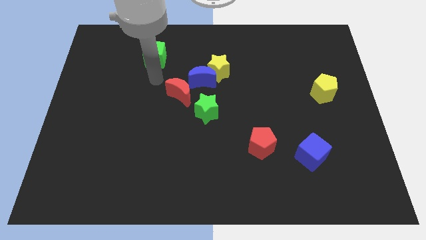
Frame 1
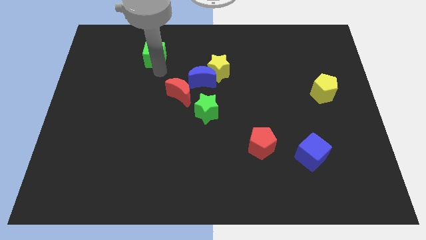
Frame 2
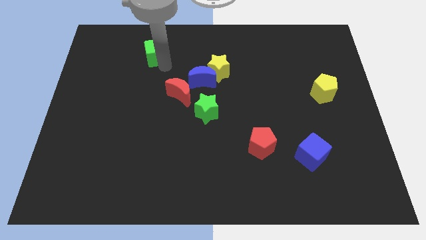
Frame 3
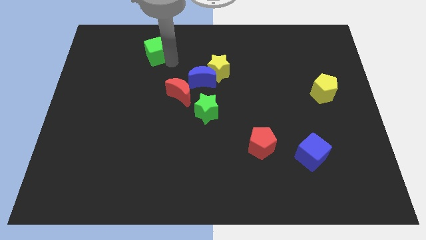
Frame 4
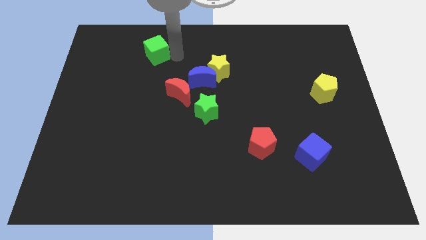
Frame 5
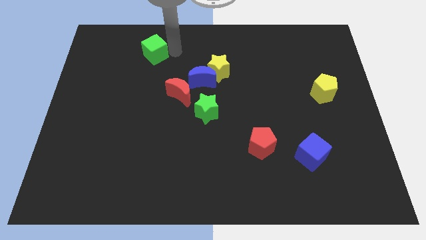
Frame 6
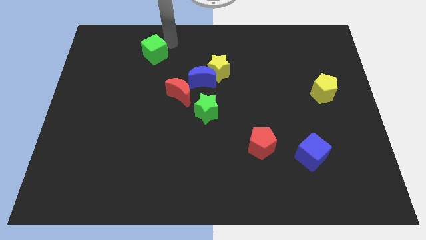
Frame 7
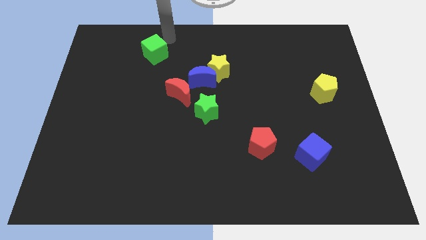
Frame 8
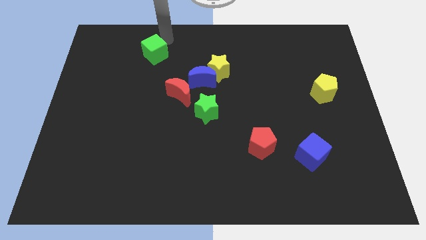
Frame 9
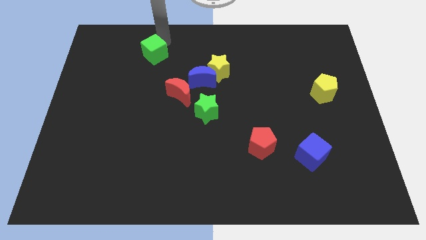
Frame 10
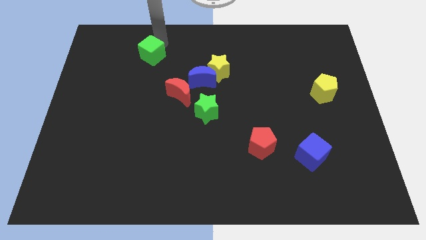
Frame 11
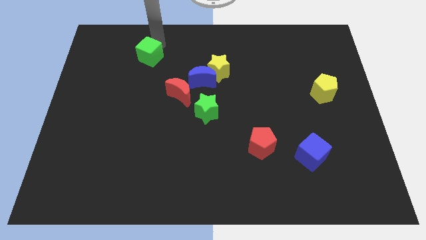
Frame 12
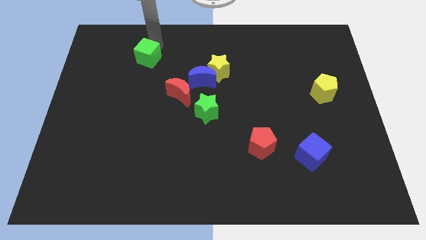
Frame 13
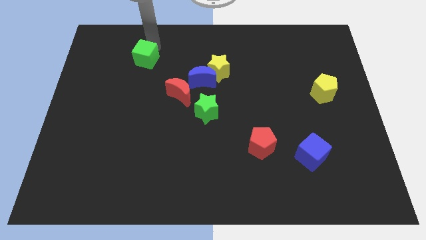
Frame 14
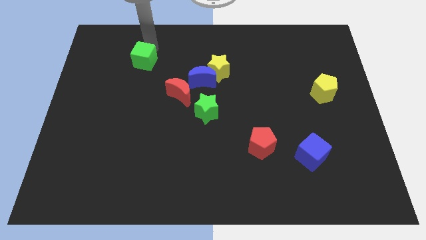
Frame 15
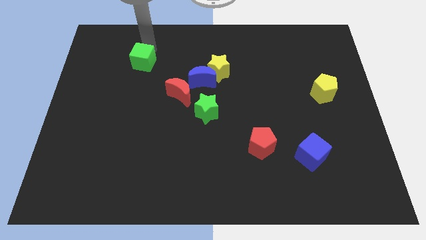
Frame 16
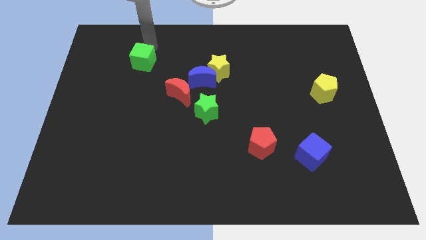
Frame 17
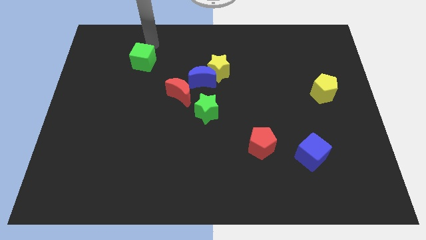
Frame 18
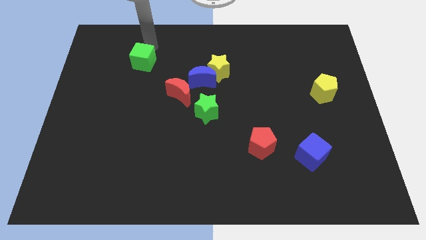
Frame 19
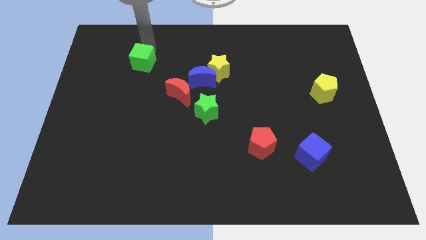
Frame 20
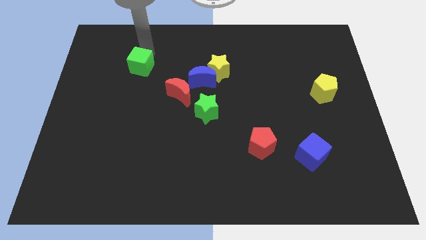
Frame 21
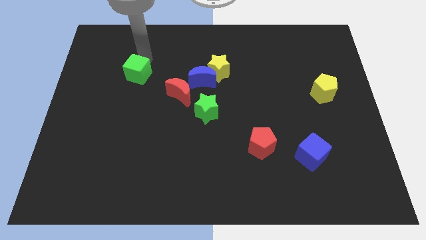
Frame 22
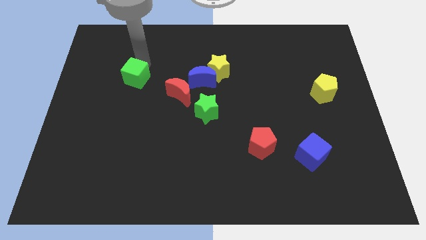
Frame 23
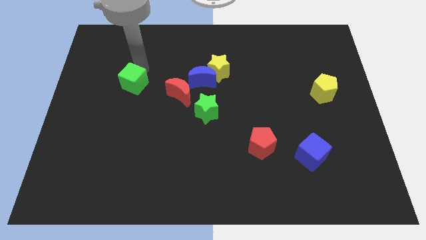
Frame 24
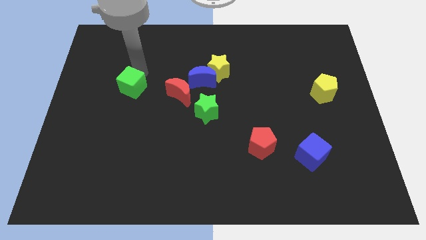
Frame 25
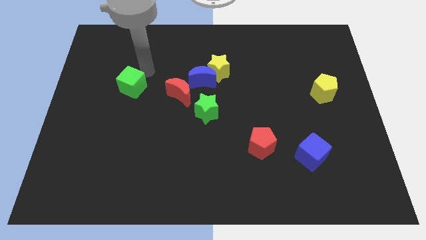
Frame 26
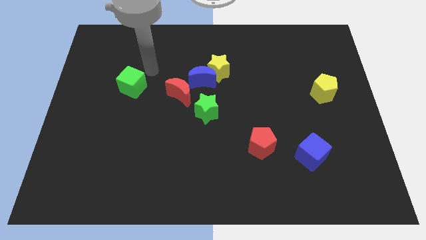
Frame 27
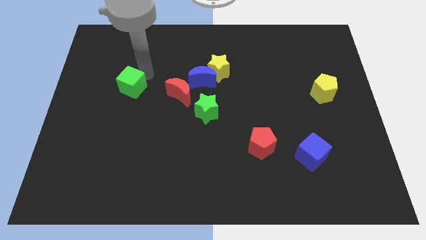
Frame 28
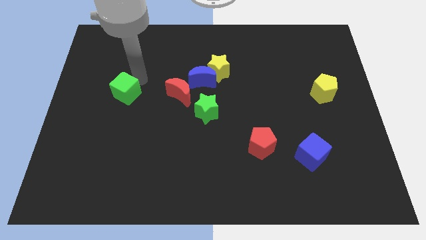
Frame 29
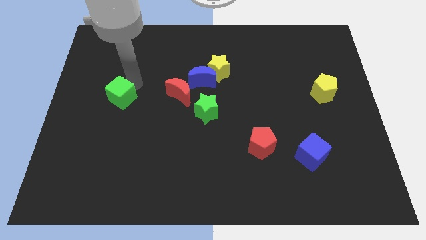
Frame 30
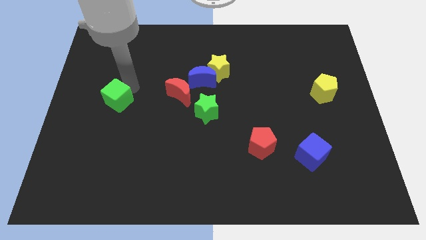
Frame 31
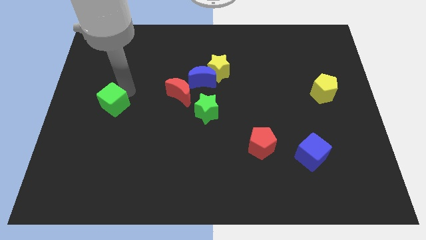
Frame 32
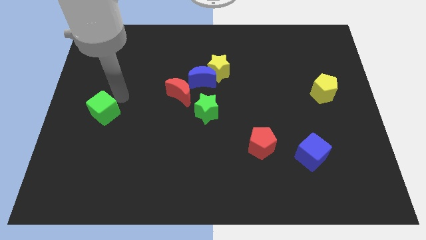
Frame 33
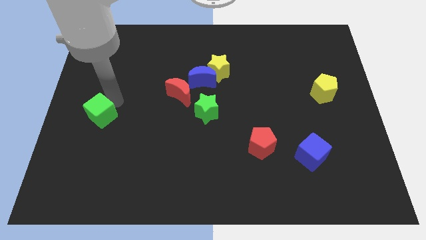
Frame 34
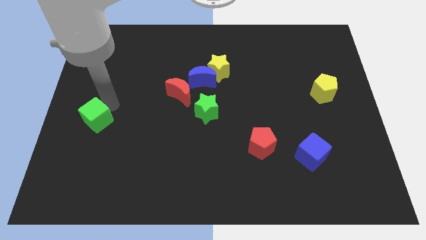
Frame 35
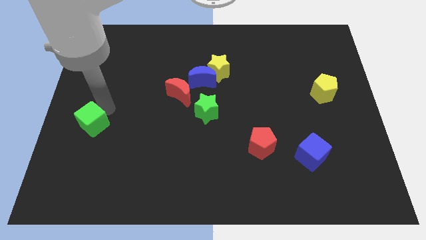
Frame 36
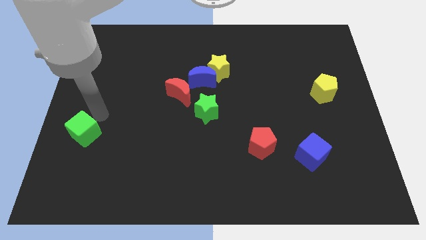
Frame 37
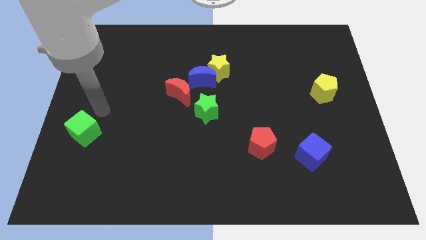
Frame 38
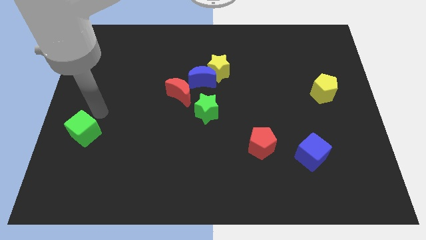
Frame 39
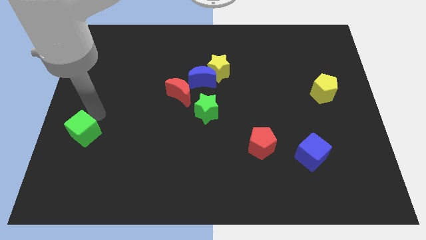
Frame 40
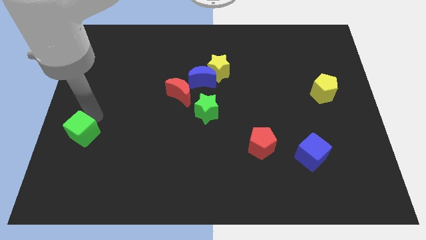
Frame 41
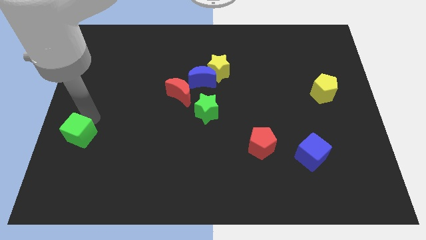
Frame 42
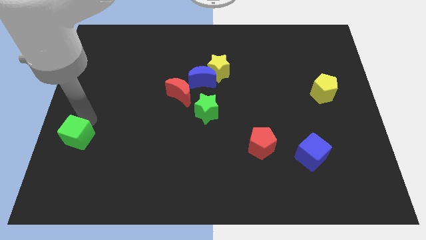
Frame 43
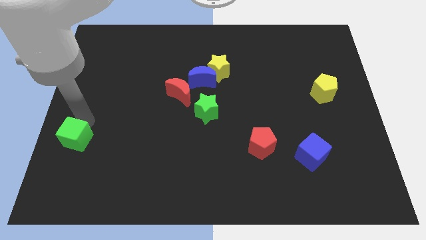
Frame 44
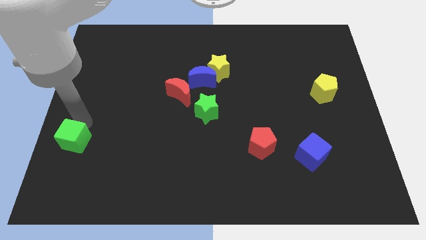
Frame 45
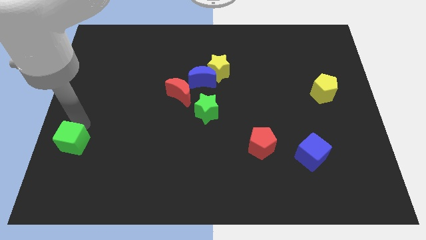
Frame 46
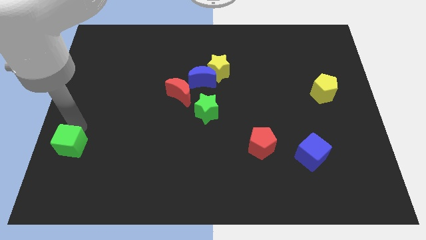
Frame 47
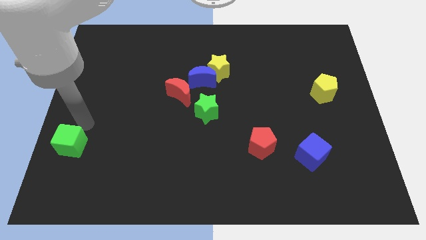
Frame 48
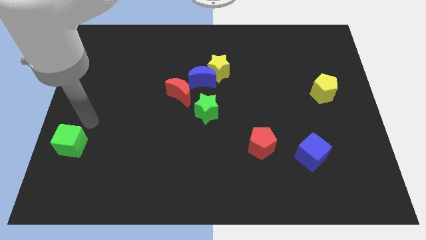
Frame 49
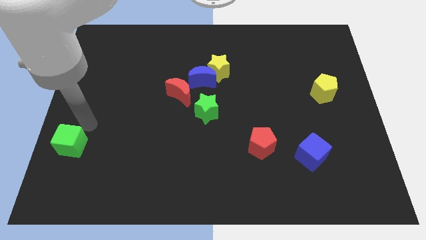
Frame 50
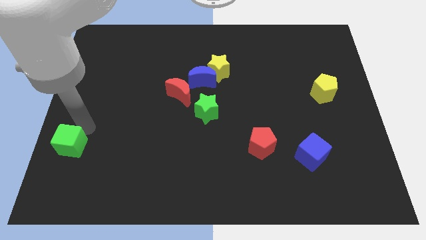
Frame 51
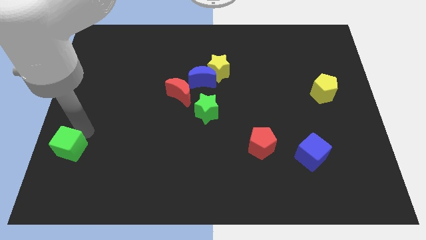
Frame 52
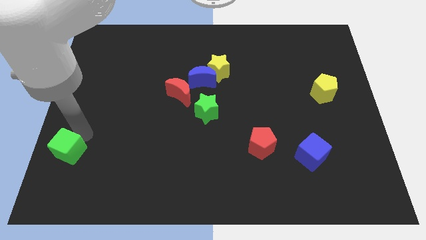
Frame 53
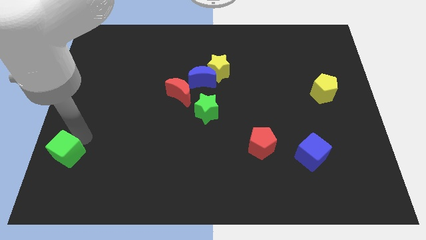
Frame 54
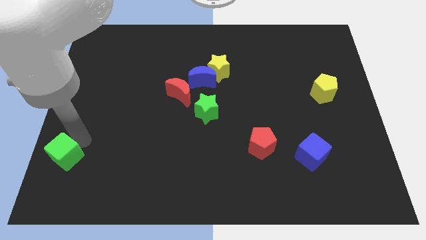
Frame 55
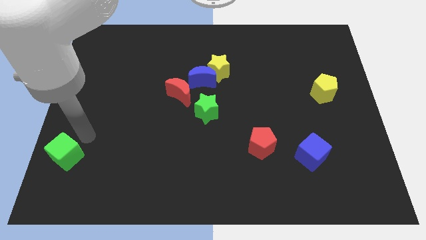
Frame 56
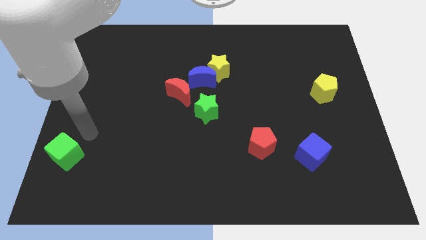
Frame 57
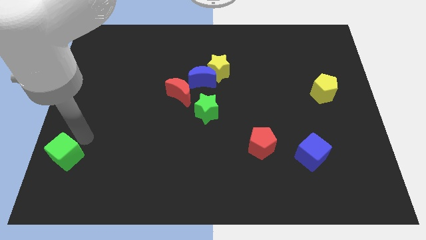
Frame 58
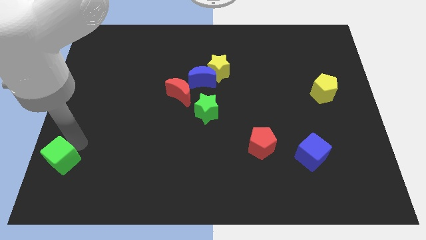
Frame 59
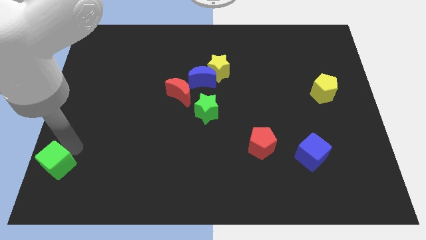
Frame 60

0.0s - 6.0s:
move the green cube to the lower left corner

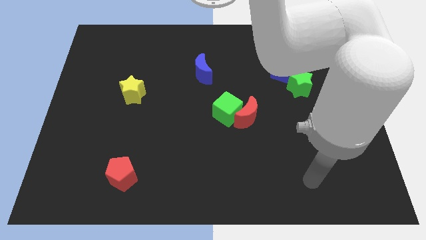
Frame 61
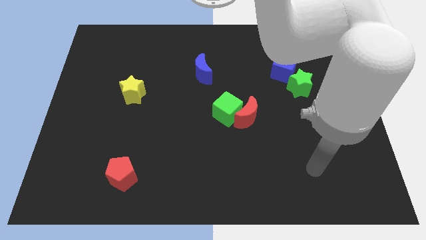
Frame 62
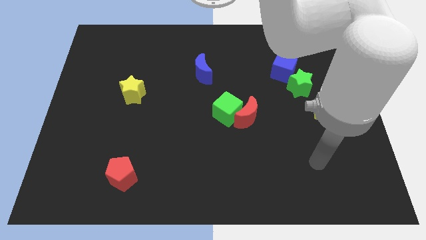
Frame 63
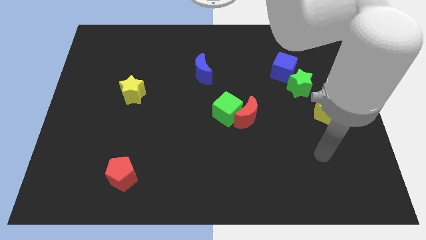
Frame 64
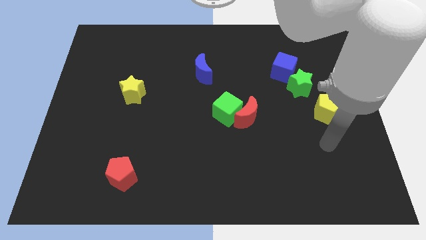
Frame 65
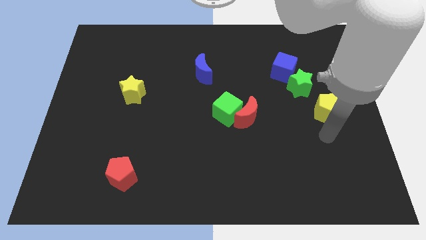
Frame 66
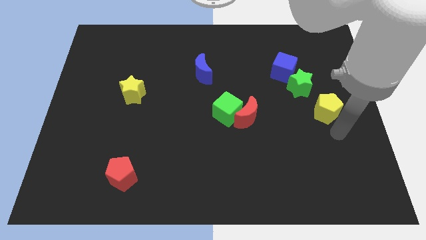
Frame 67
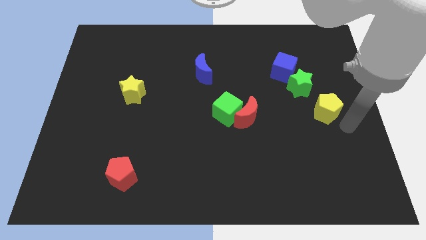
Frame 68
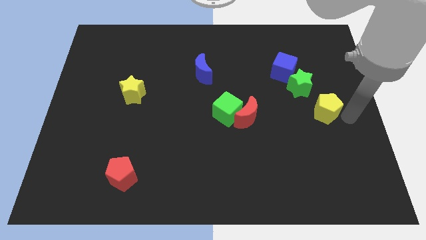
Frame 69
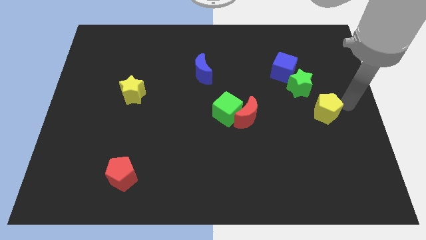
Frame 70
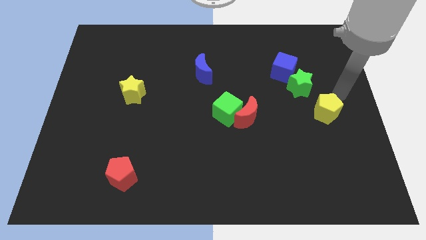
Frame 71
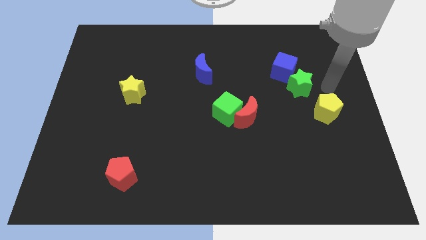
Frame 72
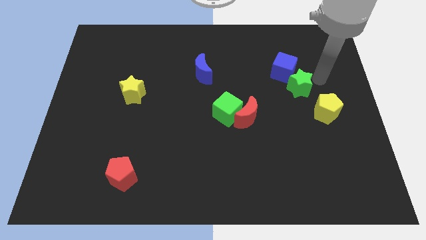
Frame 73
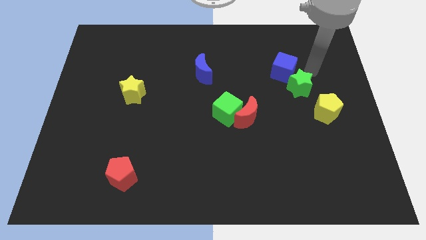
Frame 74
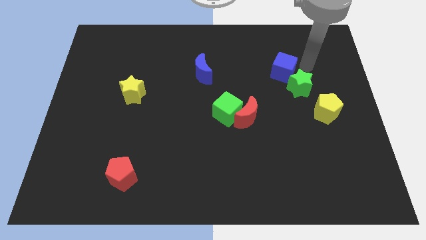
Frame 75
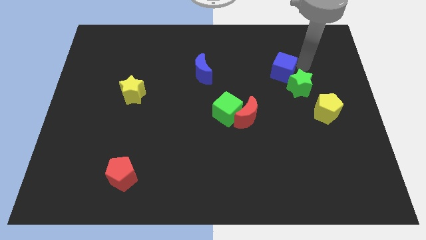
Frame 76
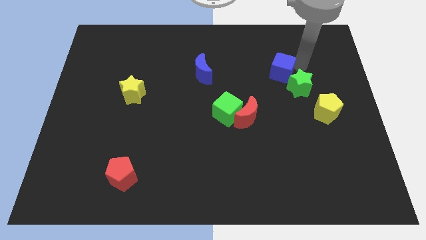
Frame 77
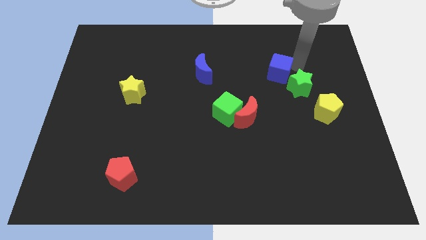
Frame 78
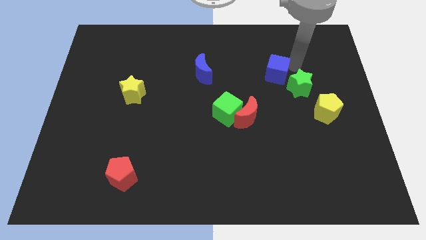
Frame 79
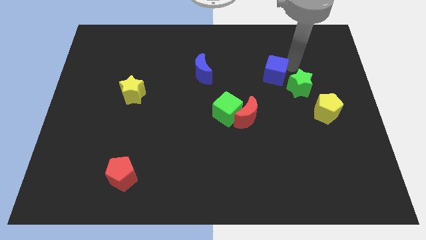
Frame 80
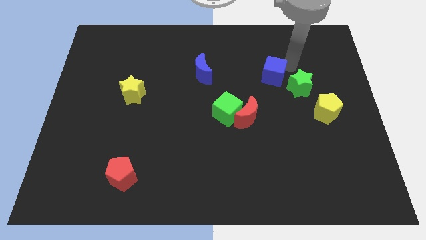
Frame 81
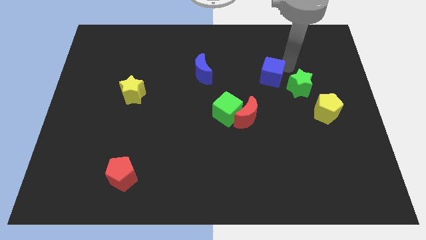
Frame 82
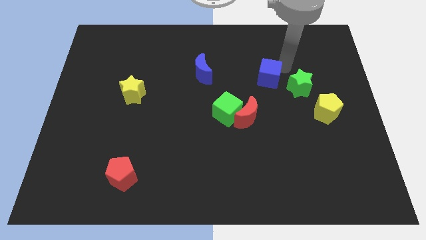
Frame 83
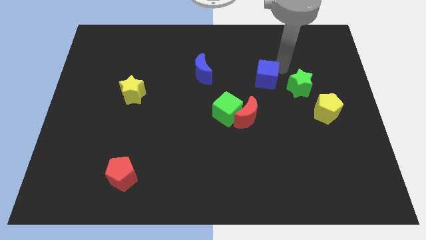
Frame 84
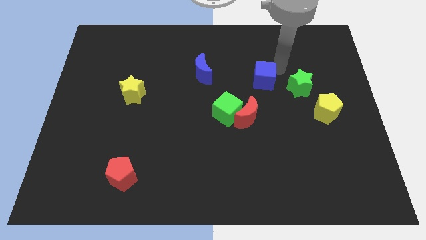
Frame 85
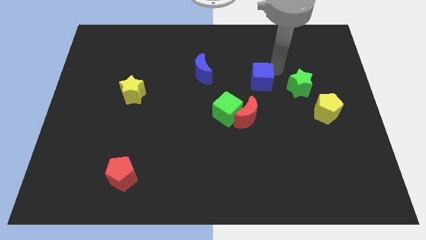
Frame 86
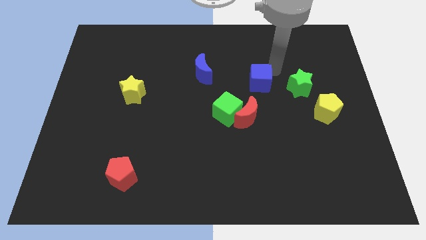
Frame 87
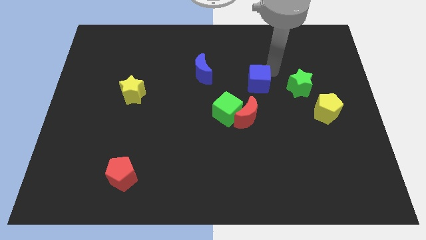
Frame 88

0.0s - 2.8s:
put the blue cube to the middle of the board
